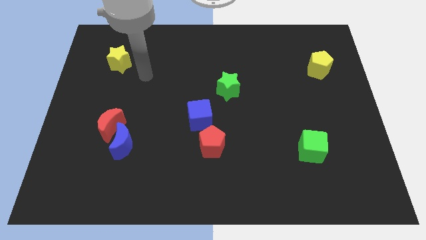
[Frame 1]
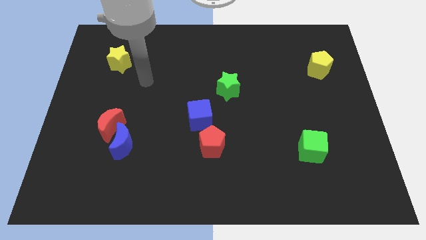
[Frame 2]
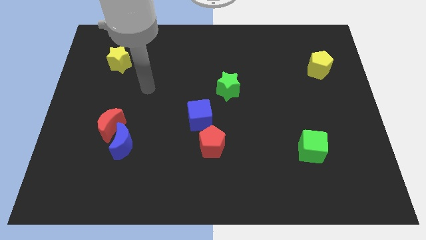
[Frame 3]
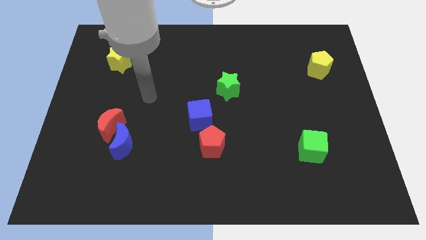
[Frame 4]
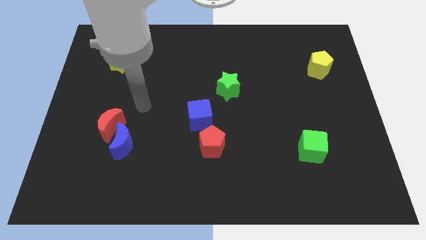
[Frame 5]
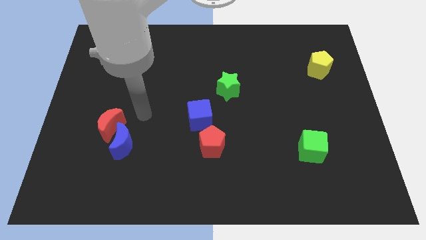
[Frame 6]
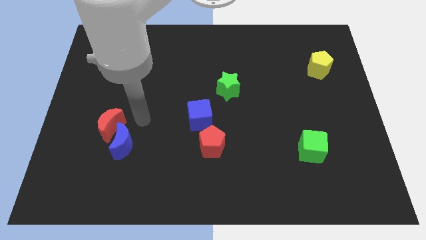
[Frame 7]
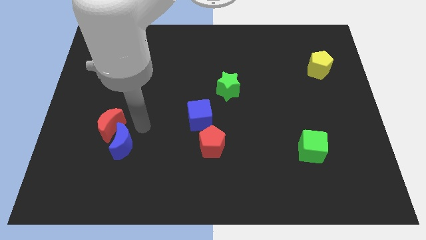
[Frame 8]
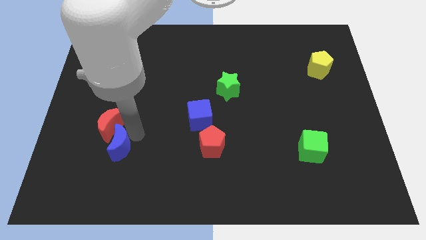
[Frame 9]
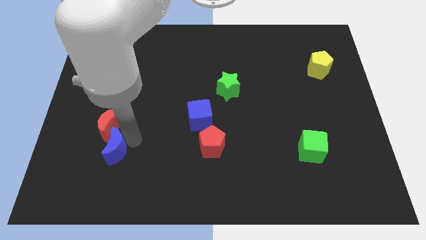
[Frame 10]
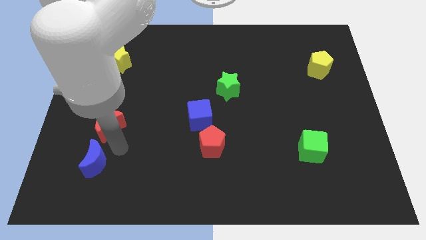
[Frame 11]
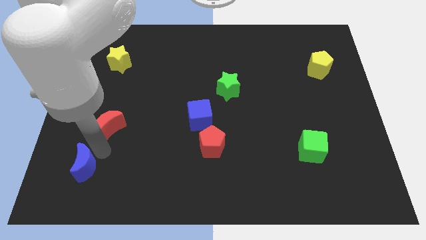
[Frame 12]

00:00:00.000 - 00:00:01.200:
pull the red moon apart from the blue moon

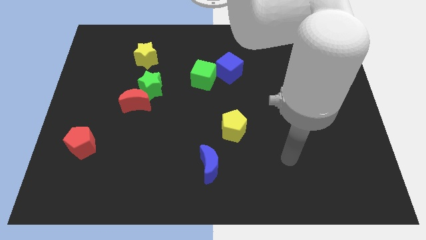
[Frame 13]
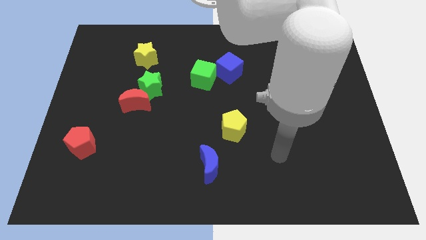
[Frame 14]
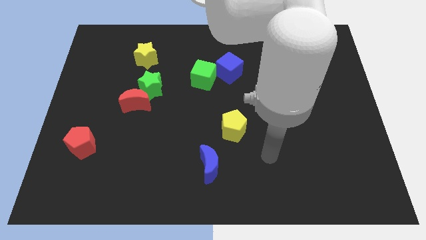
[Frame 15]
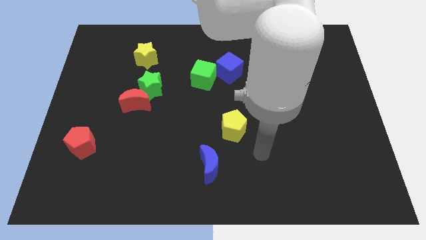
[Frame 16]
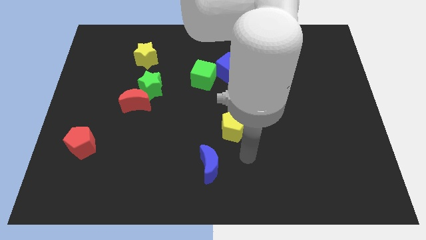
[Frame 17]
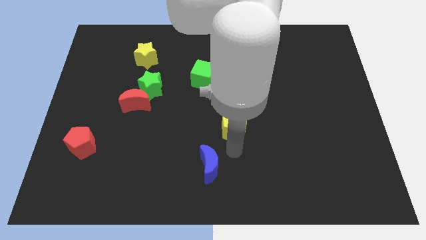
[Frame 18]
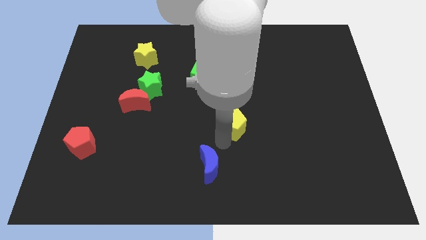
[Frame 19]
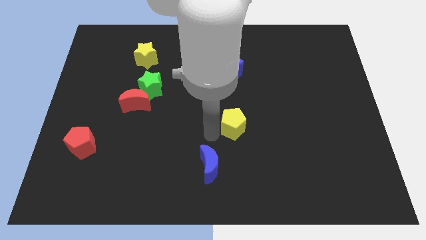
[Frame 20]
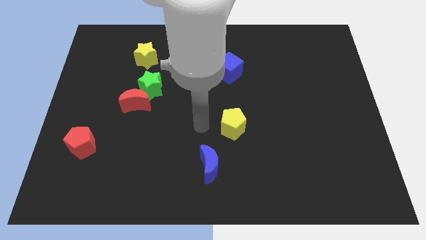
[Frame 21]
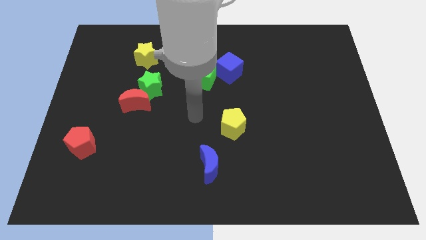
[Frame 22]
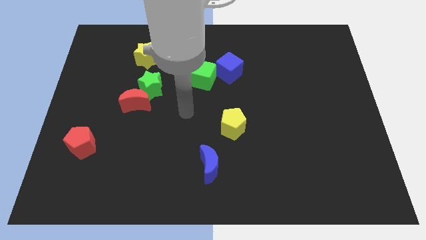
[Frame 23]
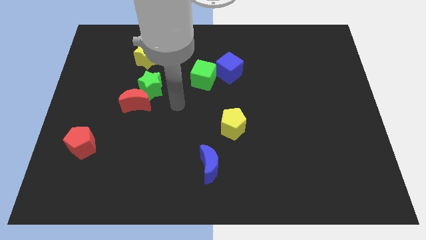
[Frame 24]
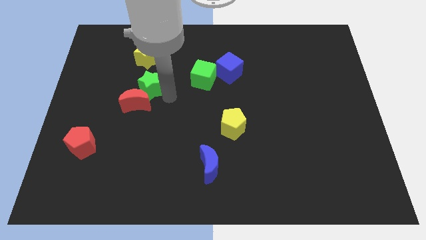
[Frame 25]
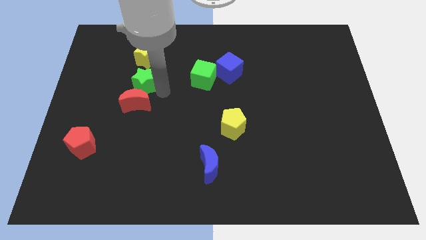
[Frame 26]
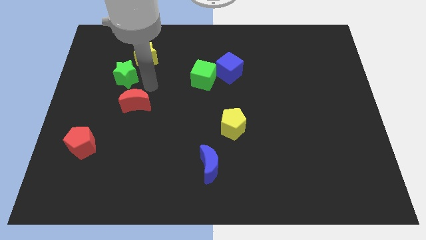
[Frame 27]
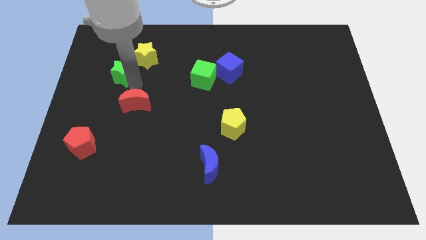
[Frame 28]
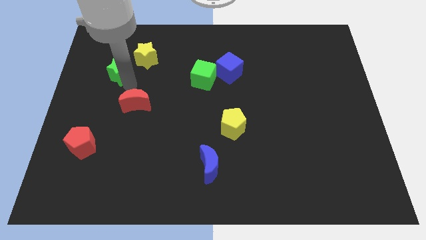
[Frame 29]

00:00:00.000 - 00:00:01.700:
move the red moon away from the green star

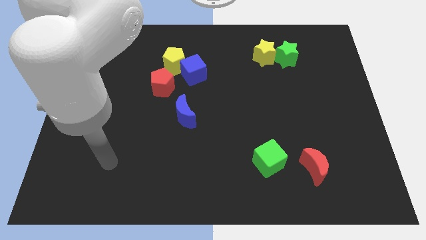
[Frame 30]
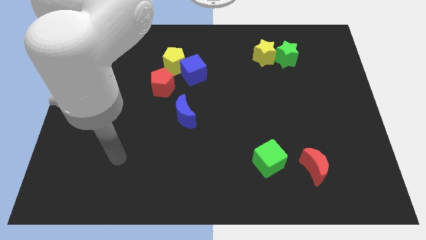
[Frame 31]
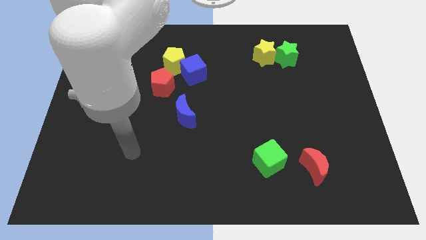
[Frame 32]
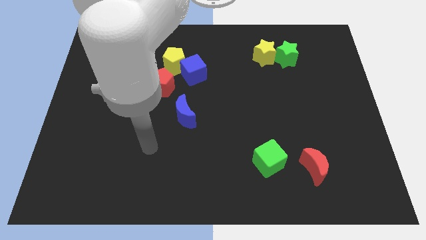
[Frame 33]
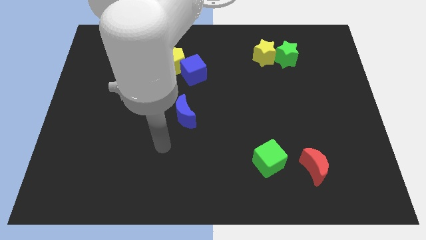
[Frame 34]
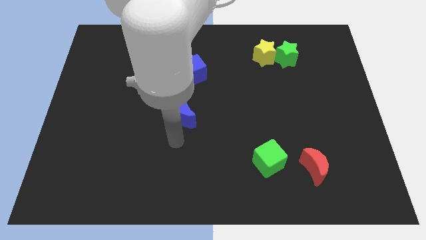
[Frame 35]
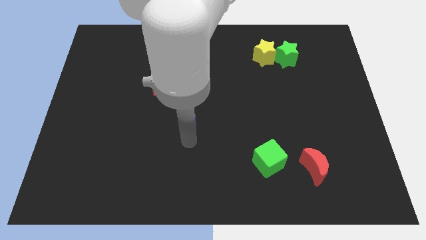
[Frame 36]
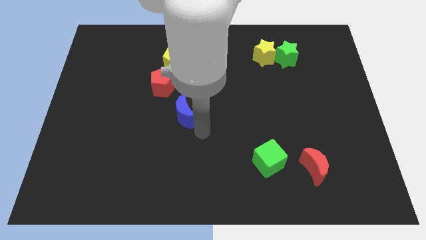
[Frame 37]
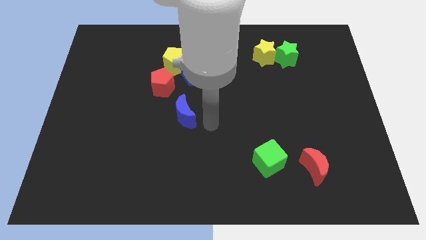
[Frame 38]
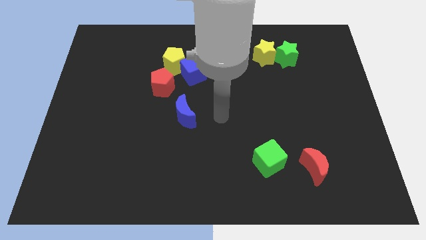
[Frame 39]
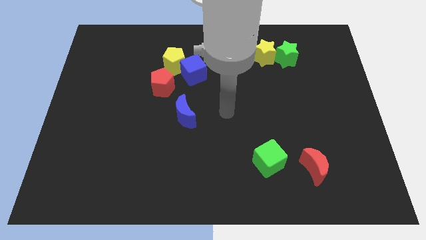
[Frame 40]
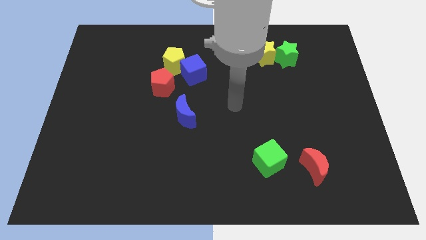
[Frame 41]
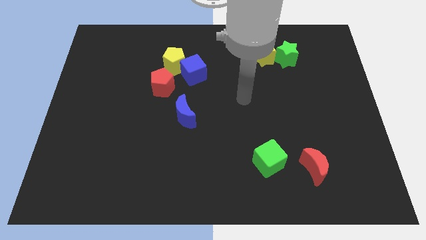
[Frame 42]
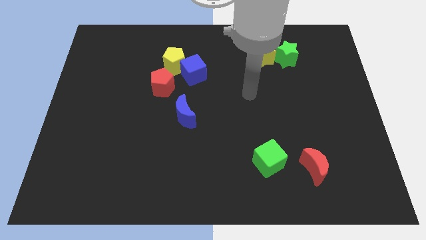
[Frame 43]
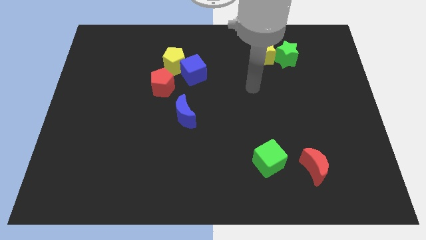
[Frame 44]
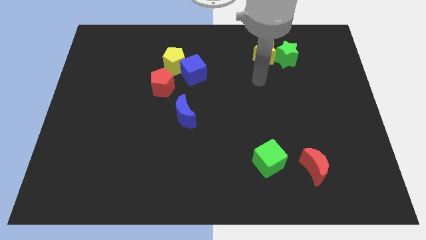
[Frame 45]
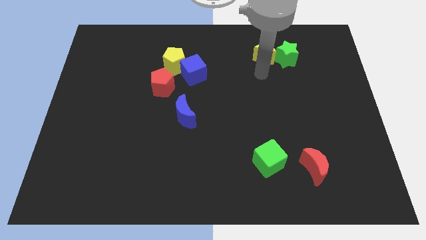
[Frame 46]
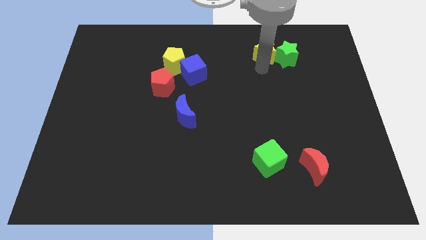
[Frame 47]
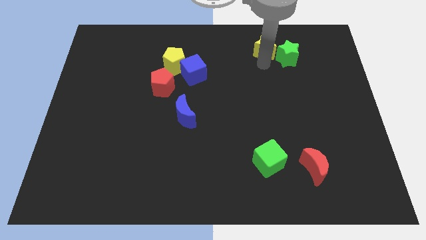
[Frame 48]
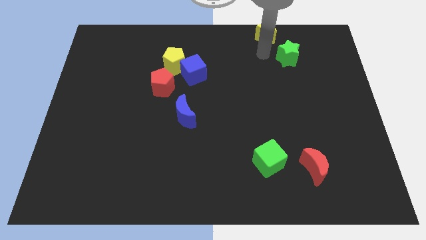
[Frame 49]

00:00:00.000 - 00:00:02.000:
pull the green star apart from the yellow star

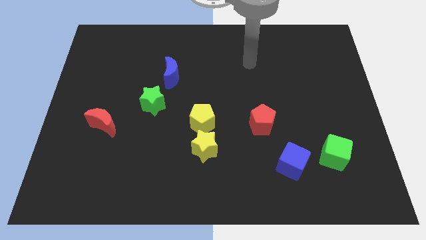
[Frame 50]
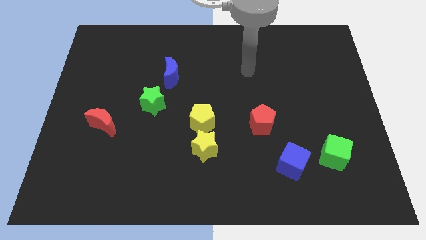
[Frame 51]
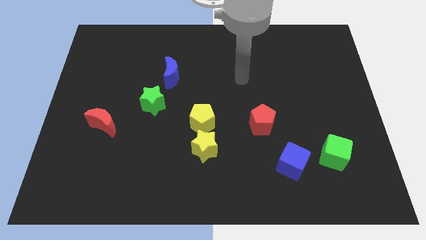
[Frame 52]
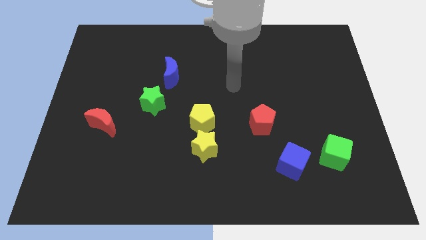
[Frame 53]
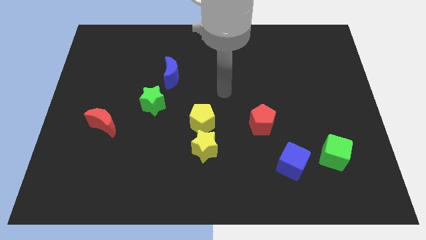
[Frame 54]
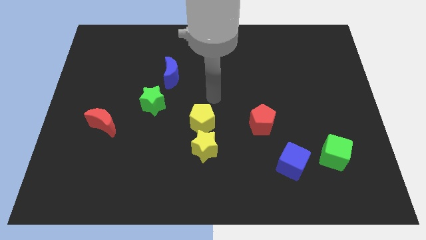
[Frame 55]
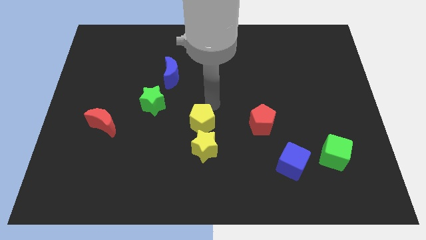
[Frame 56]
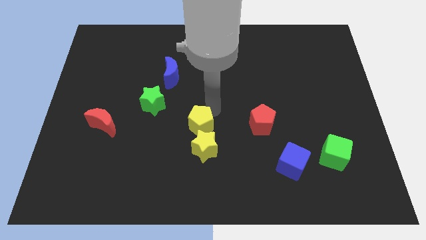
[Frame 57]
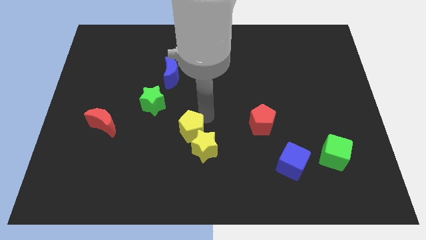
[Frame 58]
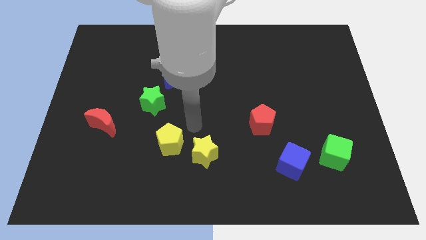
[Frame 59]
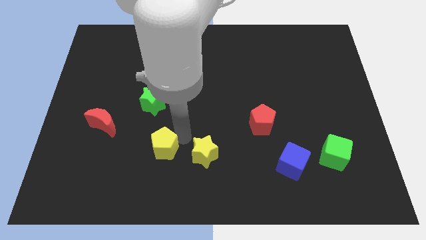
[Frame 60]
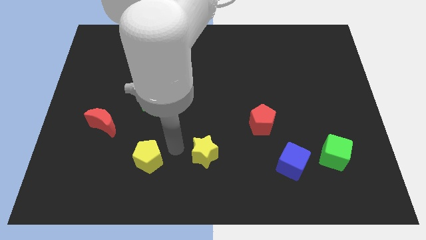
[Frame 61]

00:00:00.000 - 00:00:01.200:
move the yellow star away from the yellow pentagon

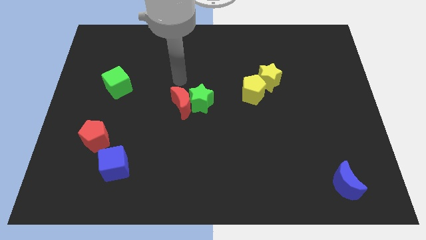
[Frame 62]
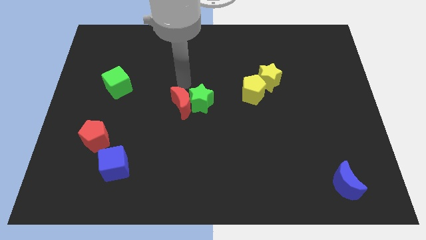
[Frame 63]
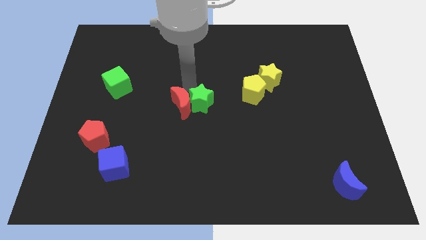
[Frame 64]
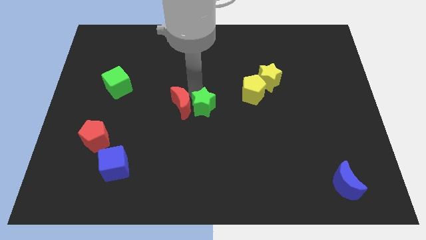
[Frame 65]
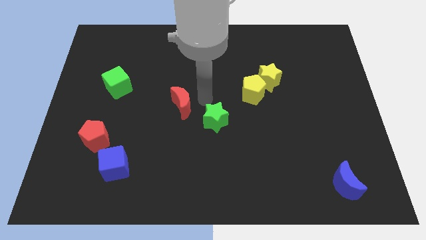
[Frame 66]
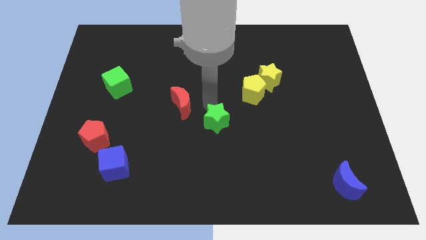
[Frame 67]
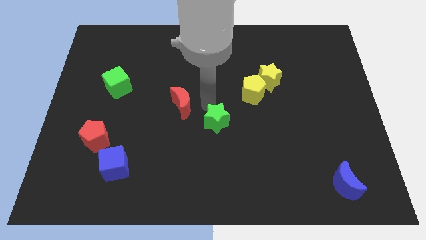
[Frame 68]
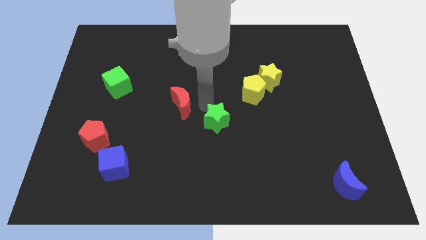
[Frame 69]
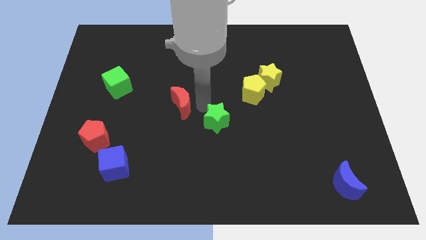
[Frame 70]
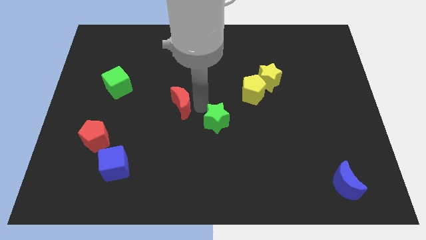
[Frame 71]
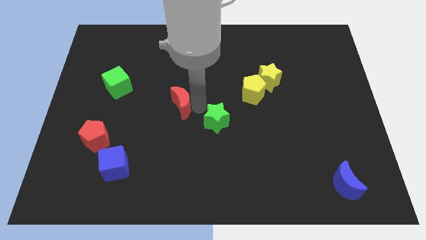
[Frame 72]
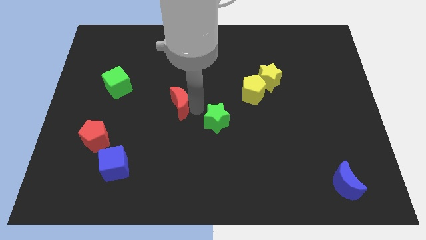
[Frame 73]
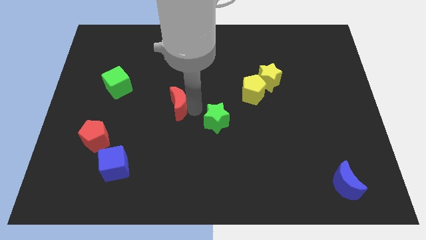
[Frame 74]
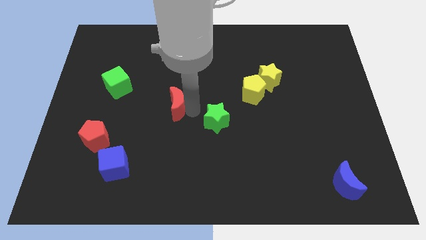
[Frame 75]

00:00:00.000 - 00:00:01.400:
separate the red moon from the green star

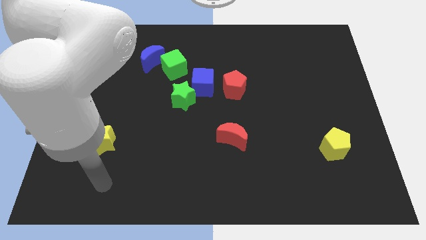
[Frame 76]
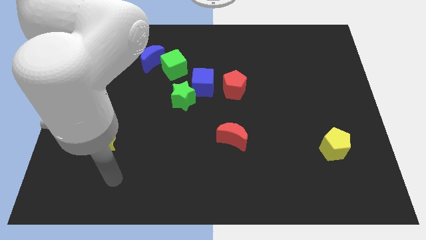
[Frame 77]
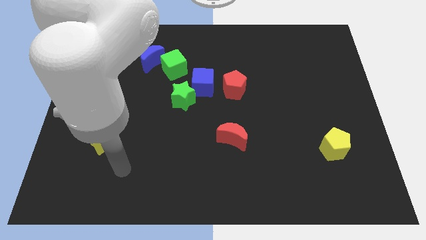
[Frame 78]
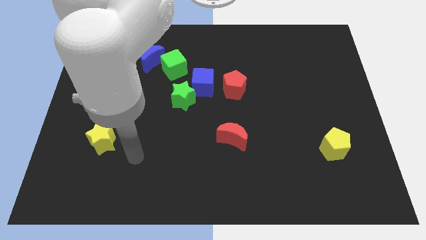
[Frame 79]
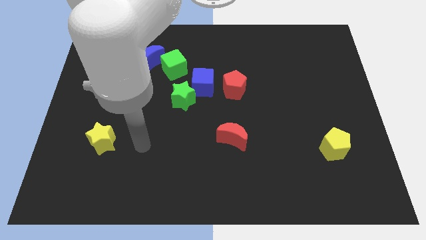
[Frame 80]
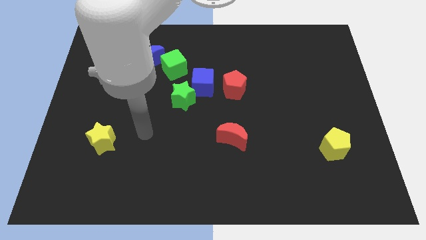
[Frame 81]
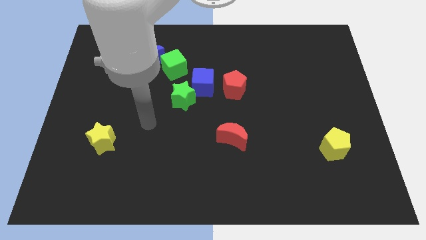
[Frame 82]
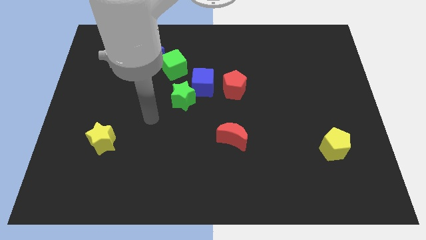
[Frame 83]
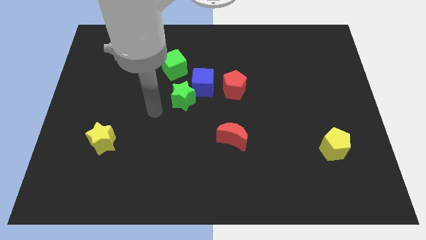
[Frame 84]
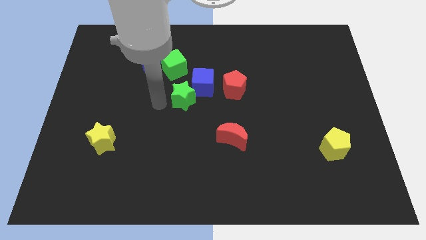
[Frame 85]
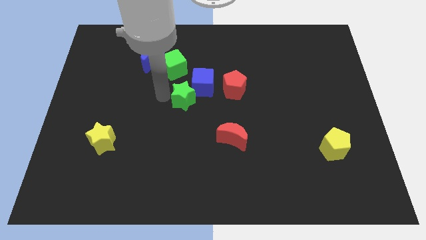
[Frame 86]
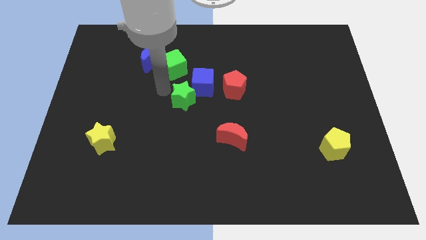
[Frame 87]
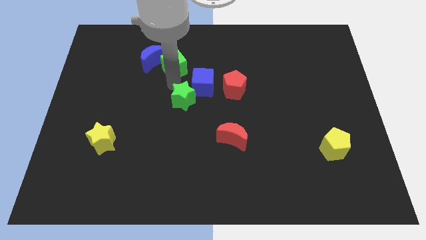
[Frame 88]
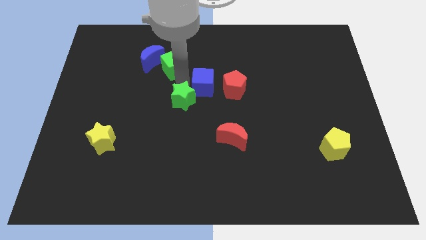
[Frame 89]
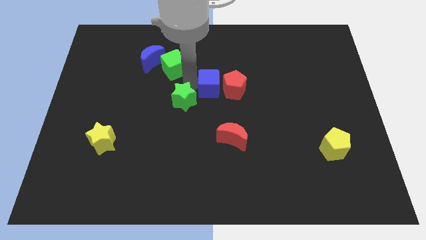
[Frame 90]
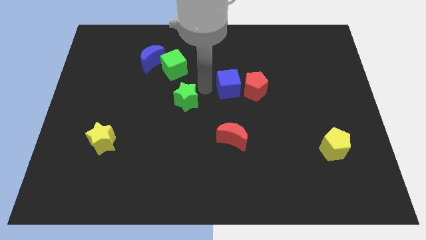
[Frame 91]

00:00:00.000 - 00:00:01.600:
move the green star away from the blue cube

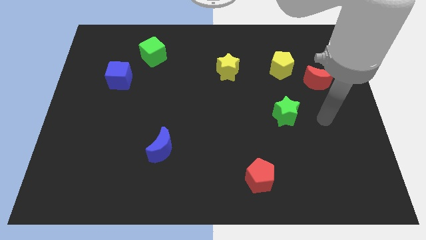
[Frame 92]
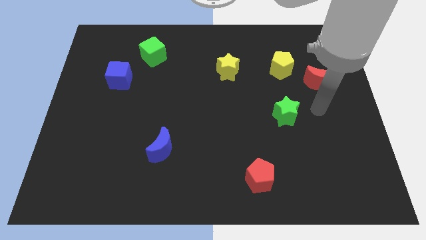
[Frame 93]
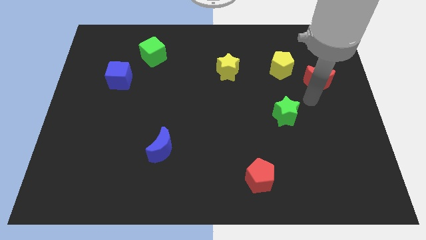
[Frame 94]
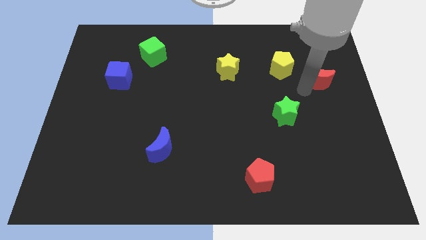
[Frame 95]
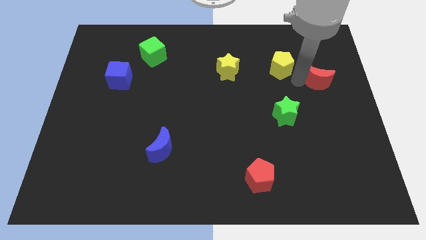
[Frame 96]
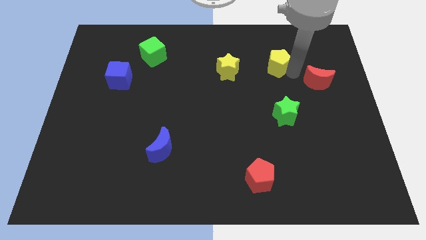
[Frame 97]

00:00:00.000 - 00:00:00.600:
move the red moon away from the yellow pentagon
